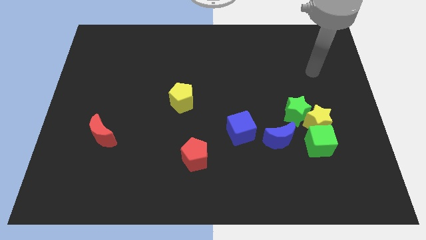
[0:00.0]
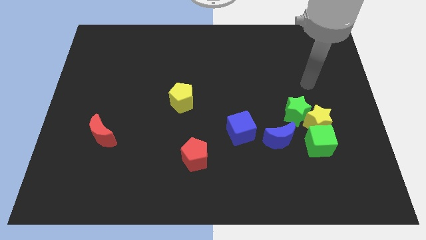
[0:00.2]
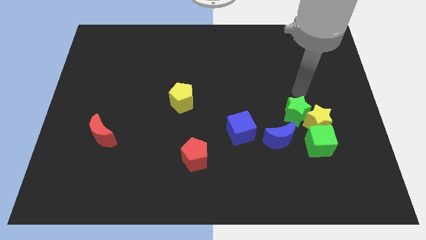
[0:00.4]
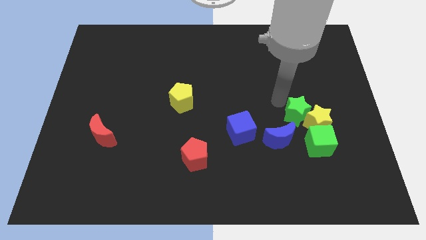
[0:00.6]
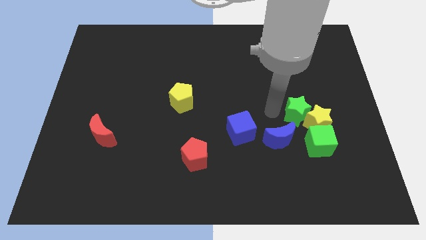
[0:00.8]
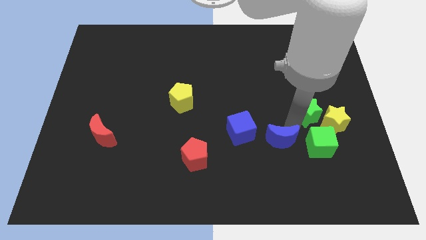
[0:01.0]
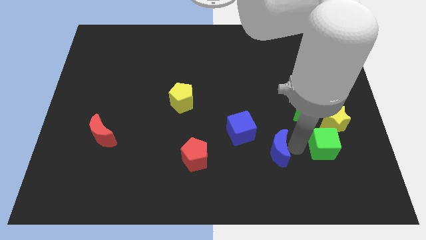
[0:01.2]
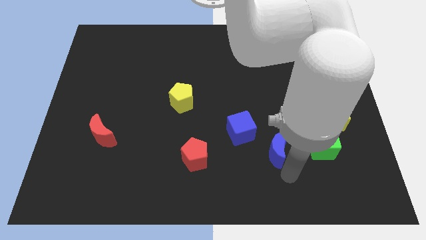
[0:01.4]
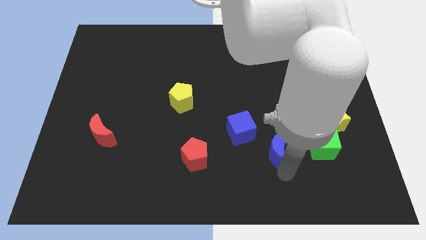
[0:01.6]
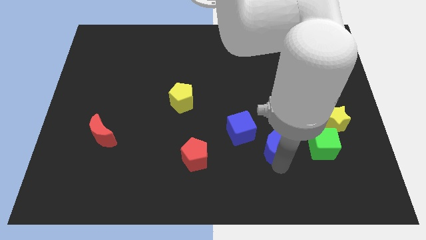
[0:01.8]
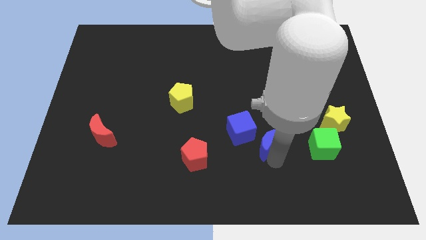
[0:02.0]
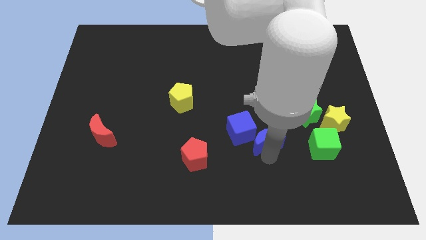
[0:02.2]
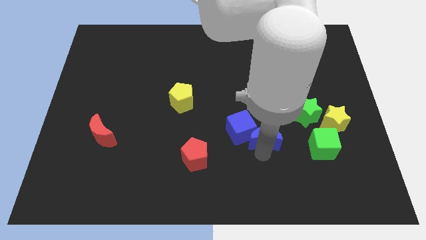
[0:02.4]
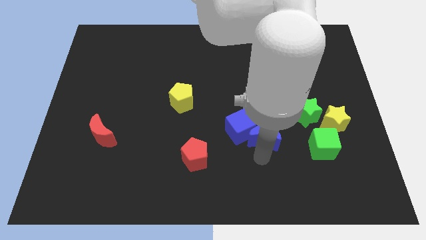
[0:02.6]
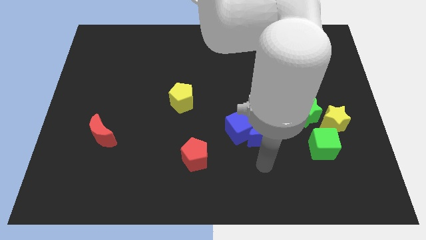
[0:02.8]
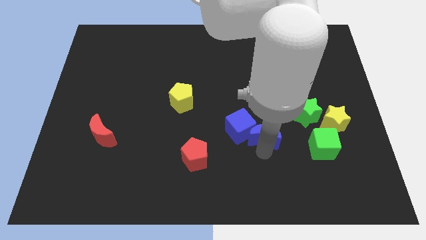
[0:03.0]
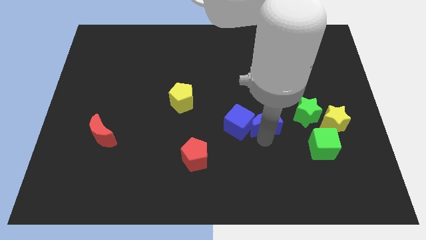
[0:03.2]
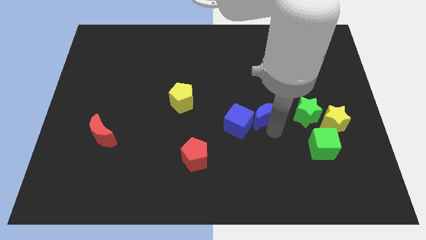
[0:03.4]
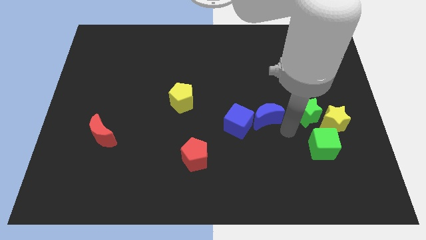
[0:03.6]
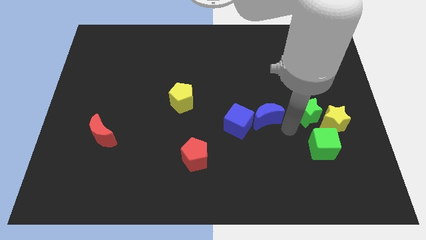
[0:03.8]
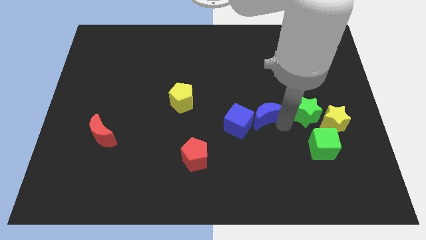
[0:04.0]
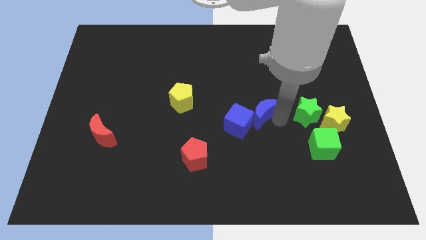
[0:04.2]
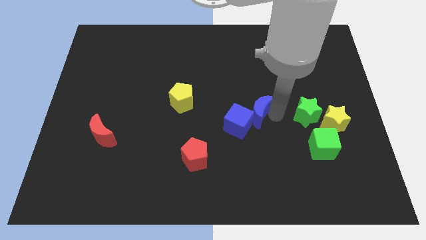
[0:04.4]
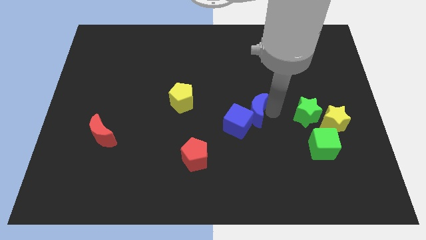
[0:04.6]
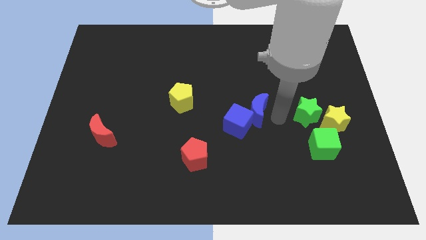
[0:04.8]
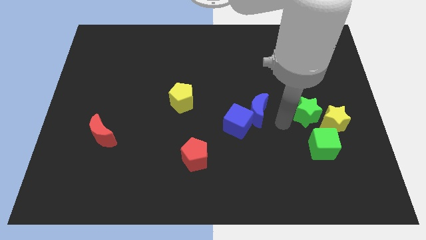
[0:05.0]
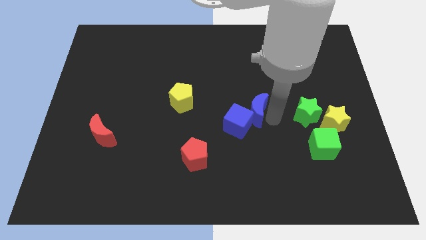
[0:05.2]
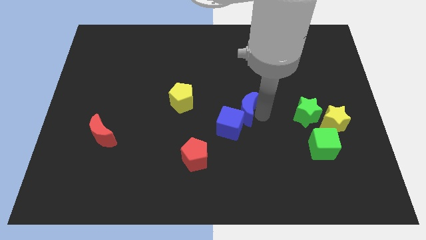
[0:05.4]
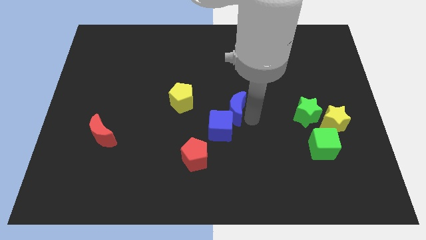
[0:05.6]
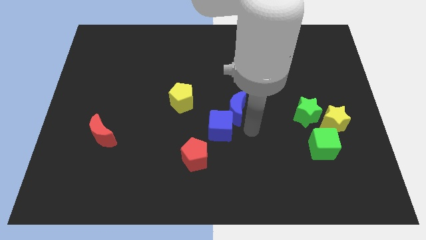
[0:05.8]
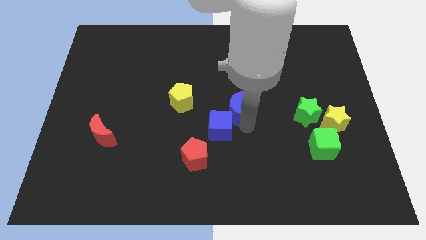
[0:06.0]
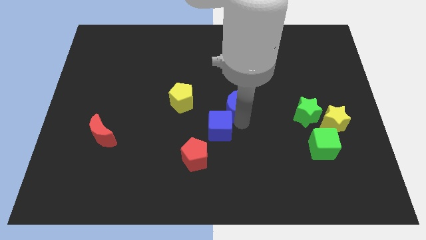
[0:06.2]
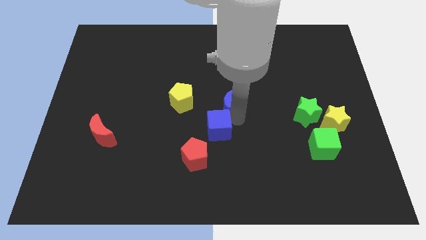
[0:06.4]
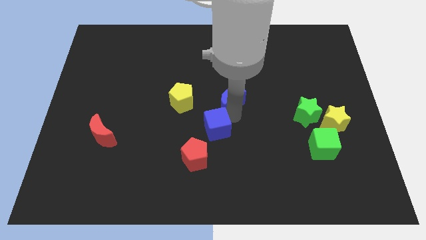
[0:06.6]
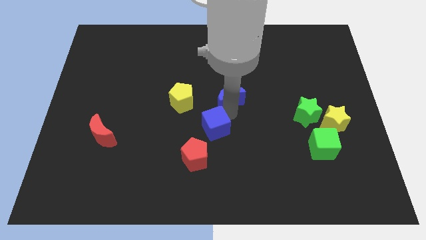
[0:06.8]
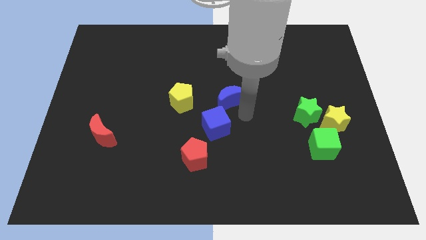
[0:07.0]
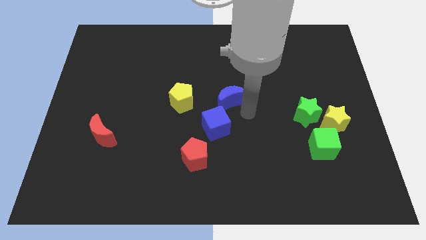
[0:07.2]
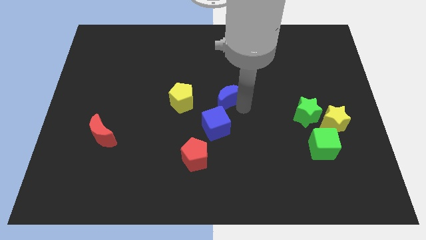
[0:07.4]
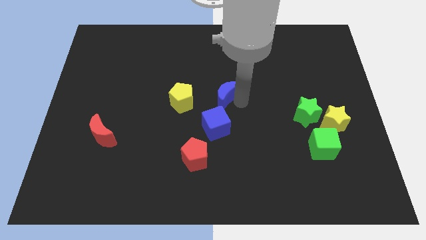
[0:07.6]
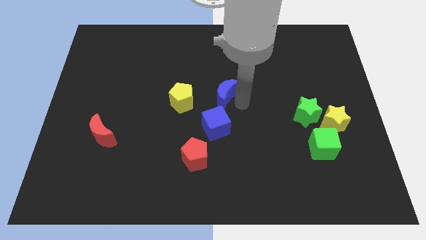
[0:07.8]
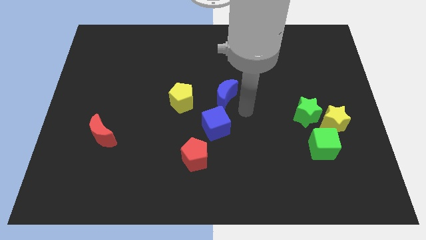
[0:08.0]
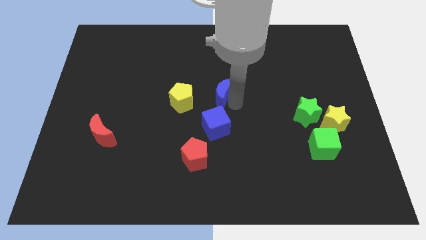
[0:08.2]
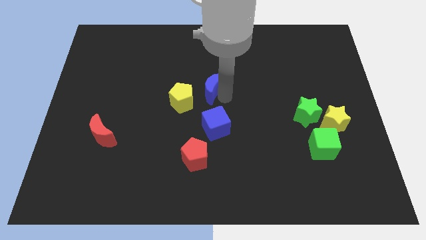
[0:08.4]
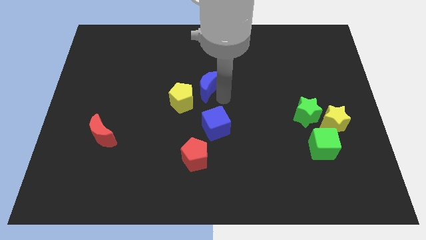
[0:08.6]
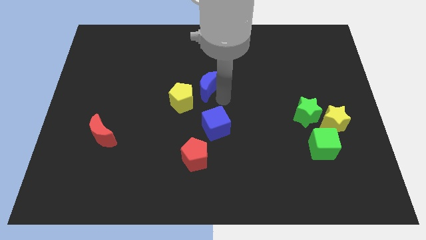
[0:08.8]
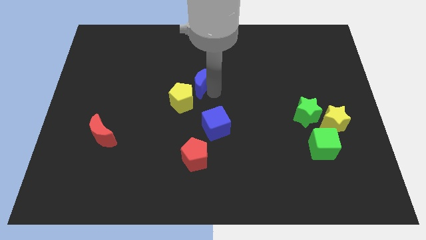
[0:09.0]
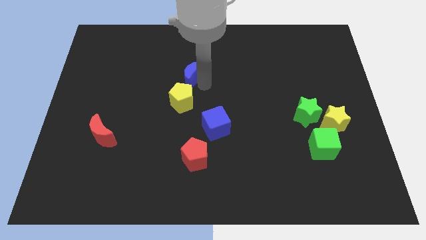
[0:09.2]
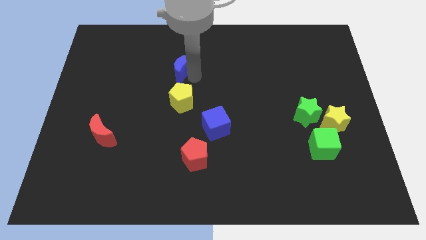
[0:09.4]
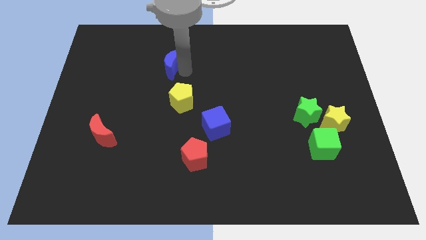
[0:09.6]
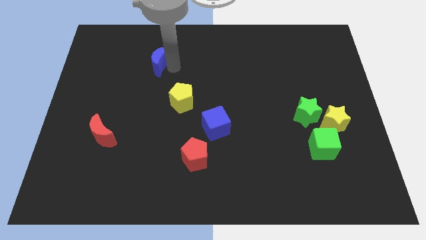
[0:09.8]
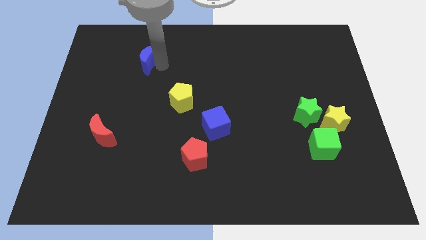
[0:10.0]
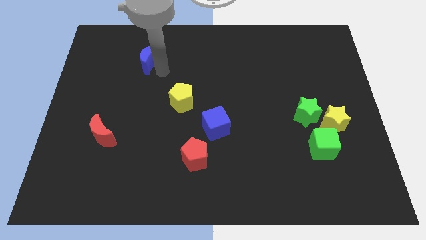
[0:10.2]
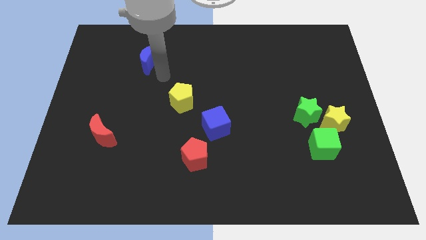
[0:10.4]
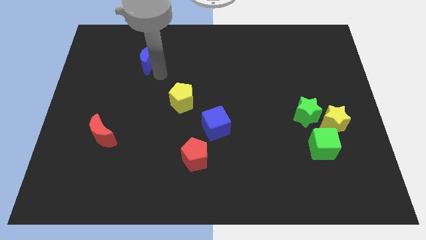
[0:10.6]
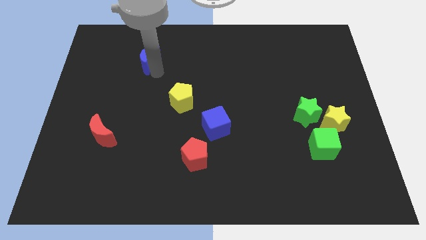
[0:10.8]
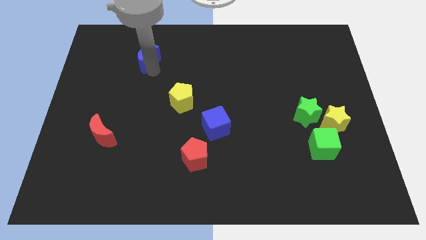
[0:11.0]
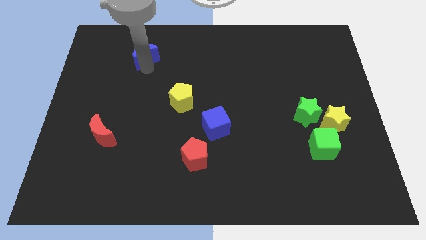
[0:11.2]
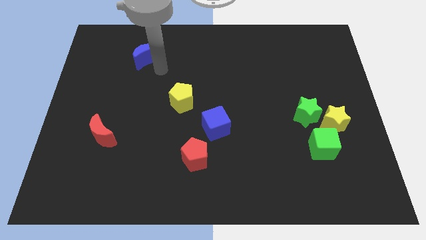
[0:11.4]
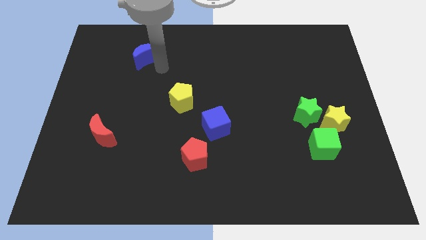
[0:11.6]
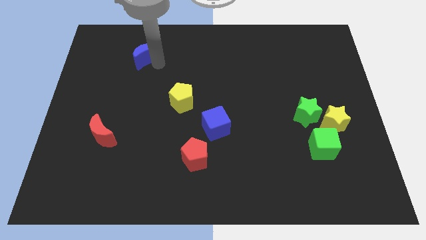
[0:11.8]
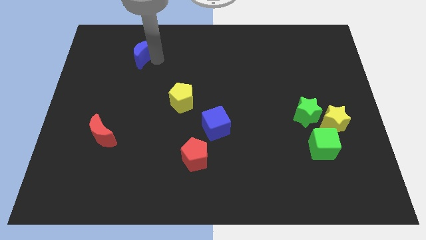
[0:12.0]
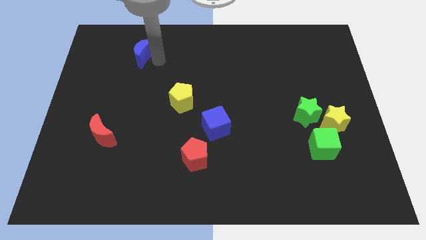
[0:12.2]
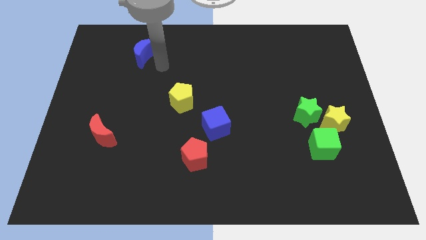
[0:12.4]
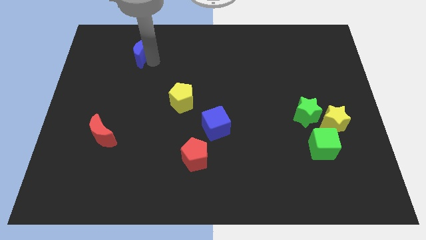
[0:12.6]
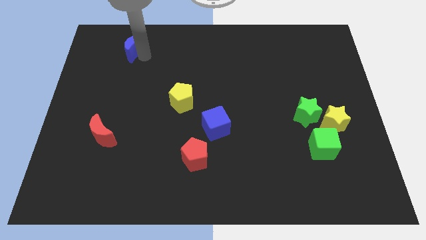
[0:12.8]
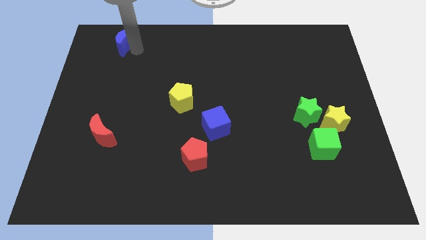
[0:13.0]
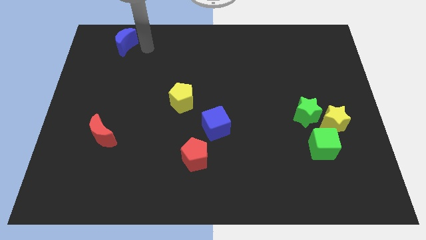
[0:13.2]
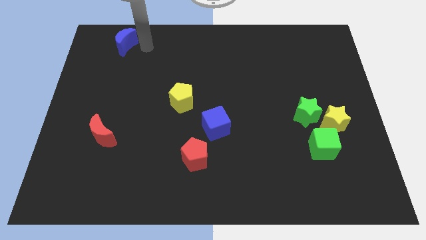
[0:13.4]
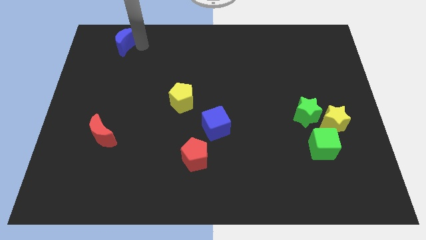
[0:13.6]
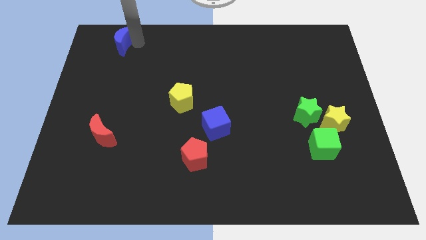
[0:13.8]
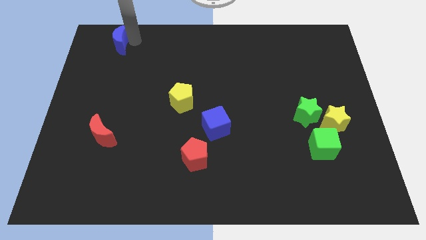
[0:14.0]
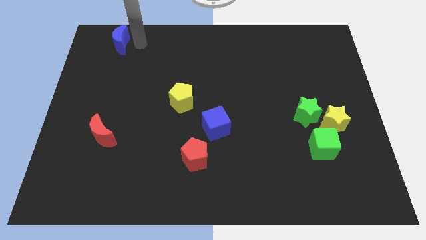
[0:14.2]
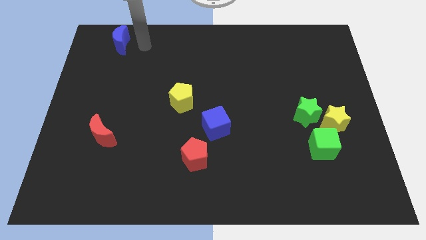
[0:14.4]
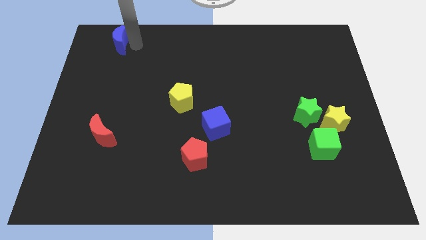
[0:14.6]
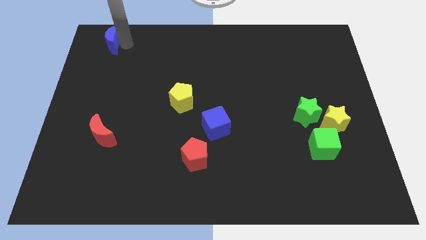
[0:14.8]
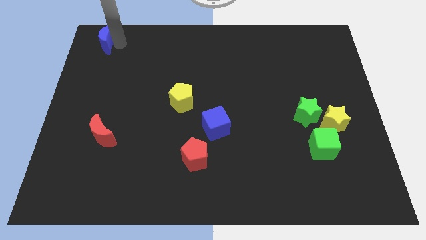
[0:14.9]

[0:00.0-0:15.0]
put the blue moon to the upper left corner
